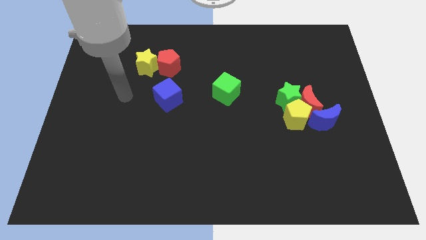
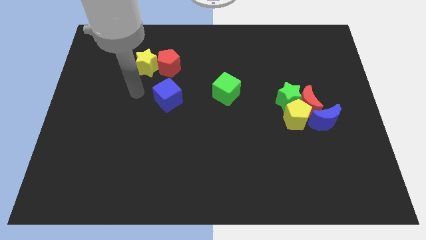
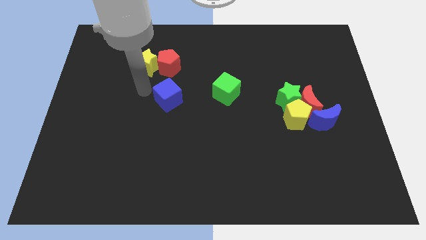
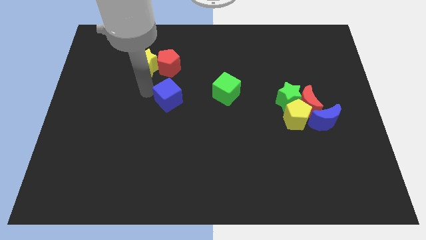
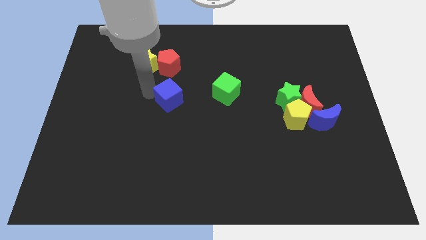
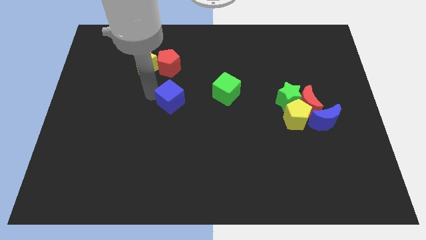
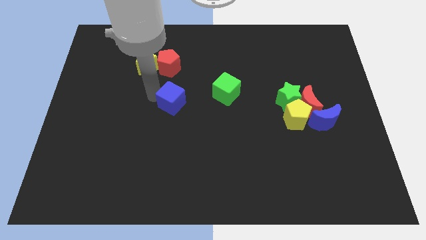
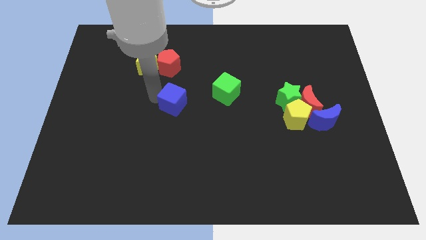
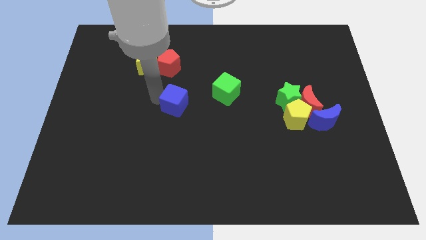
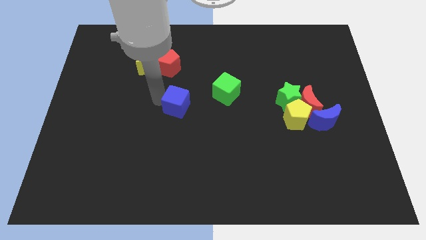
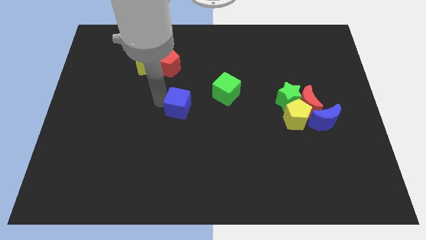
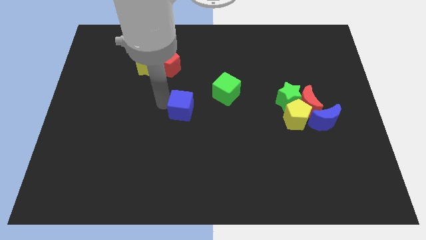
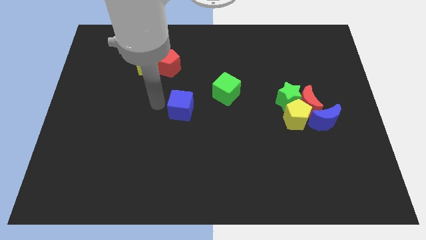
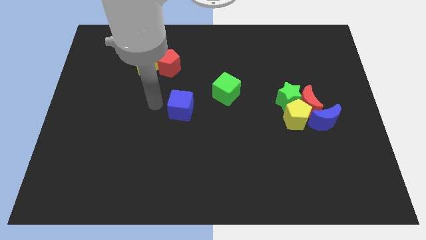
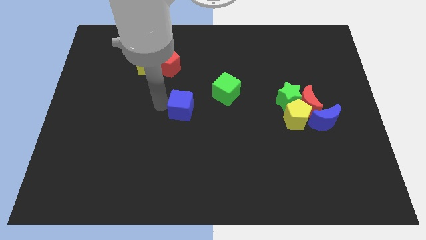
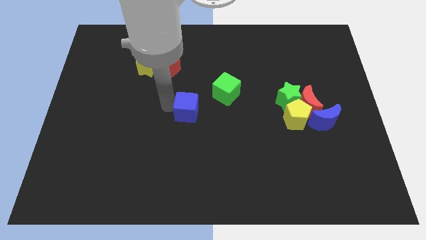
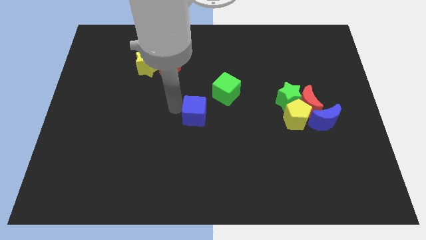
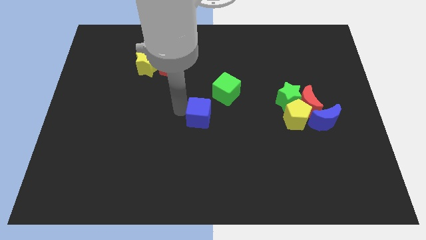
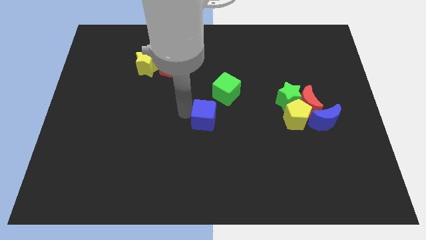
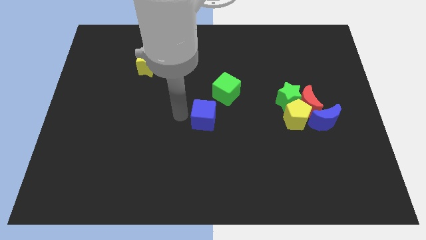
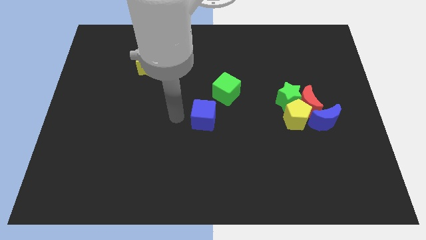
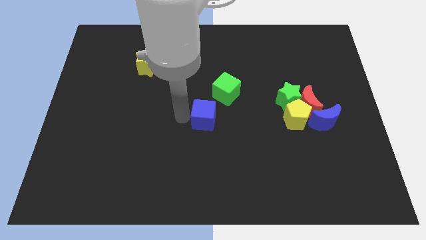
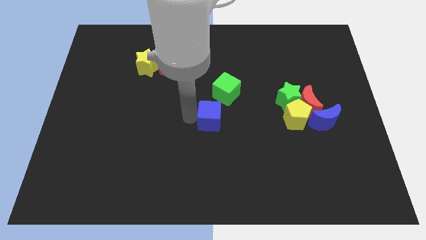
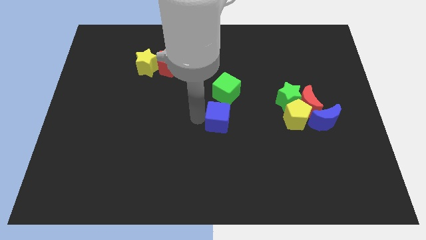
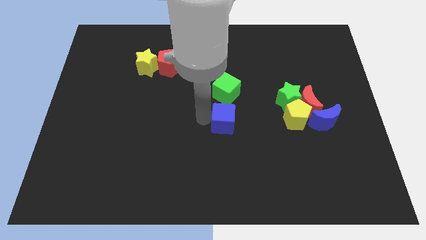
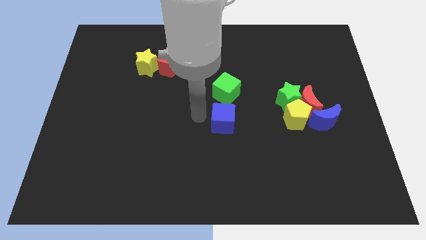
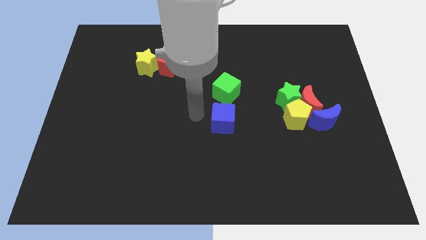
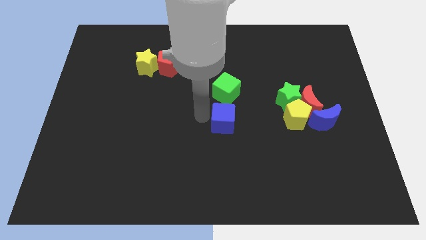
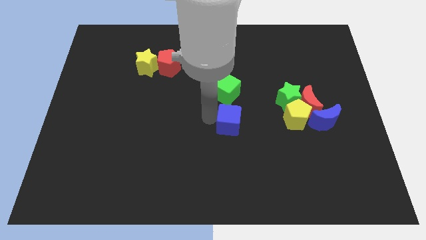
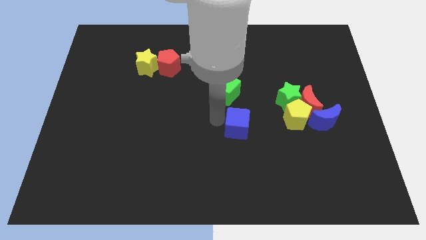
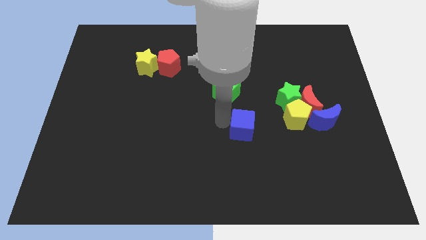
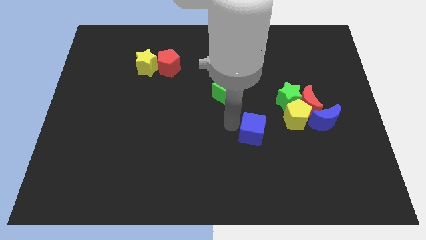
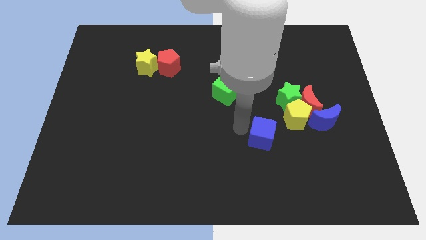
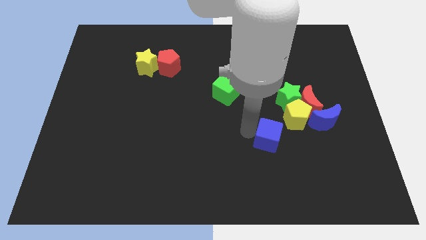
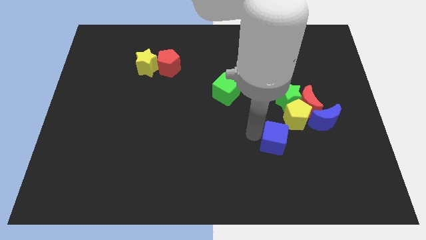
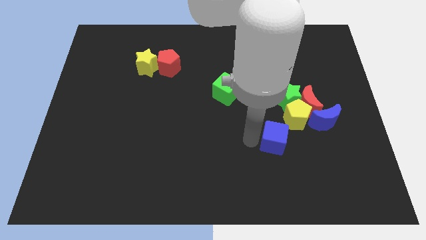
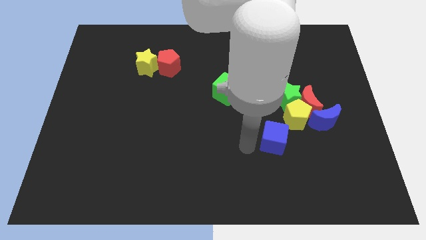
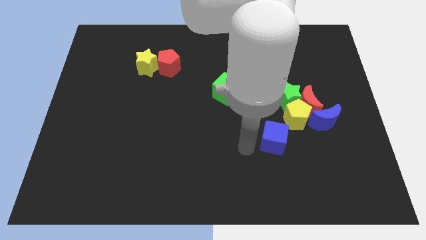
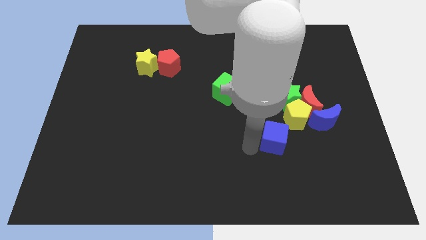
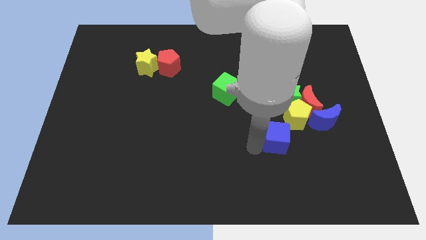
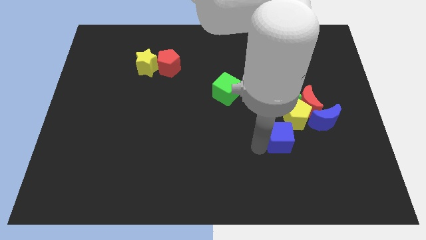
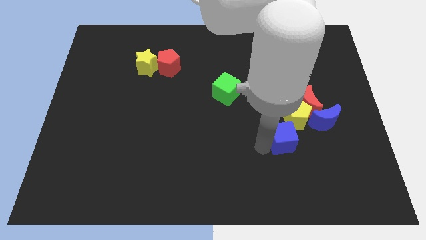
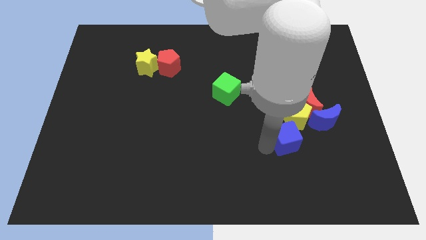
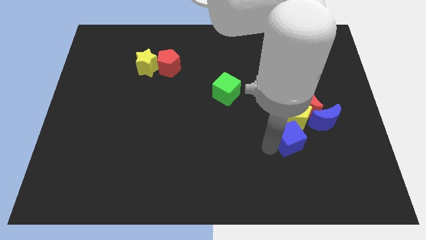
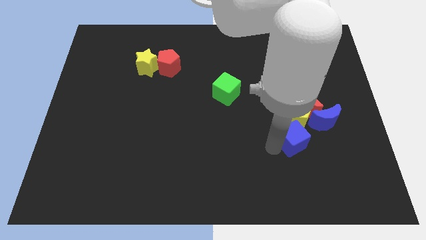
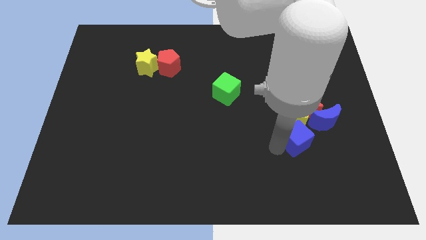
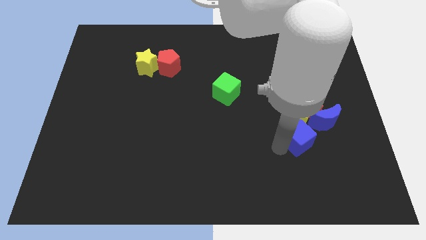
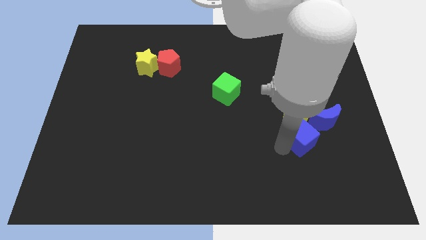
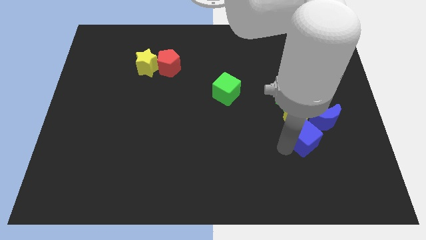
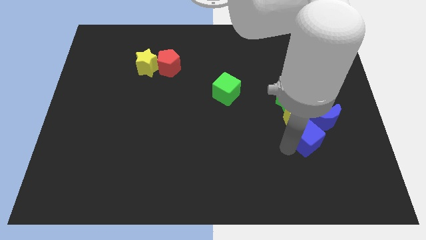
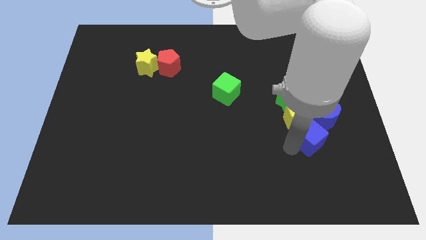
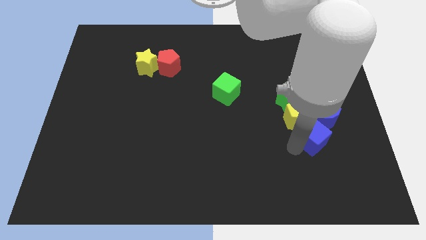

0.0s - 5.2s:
slide the blue cube towards the blue moon

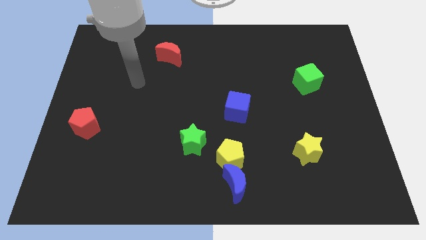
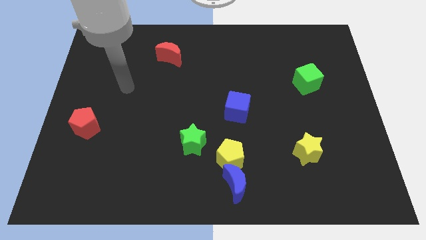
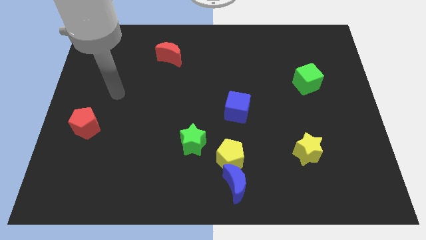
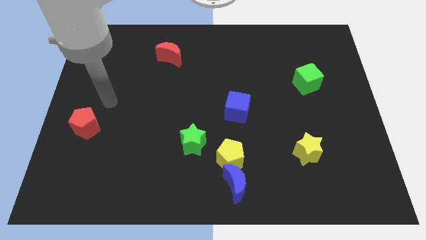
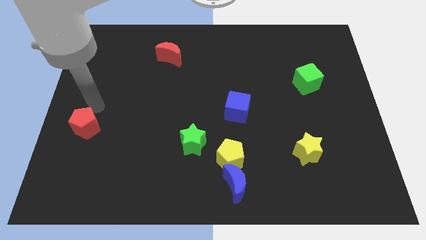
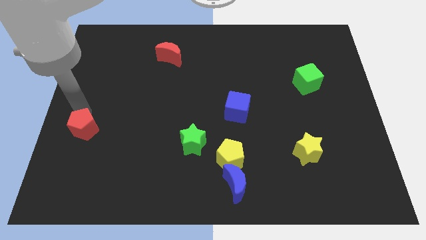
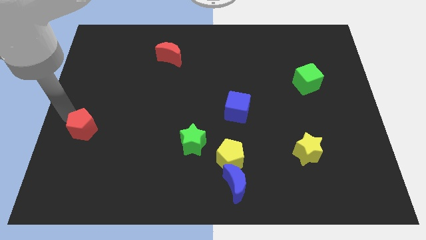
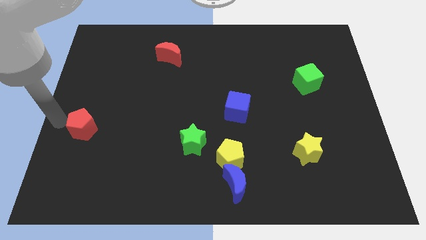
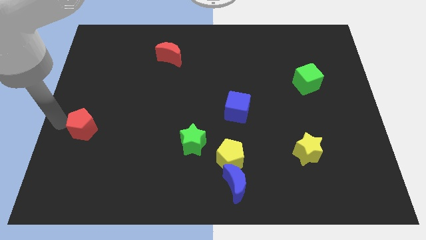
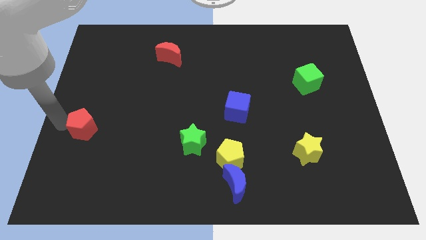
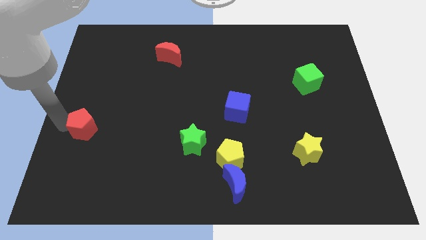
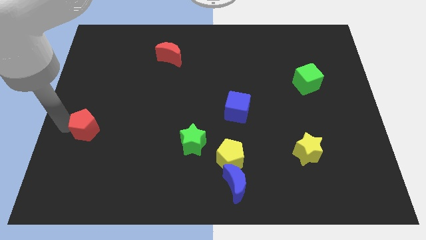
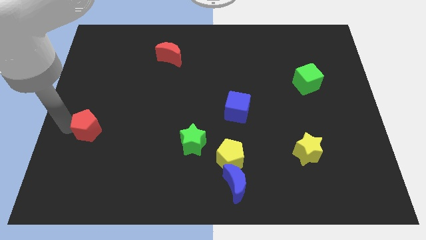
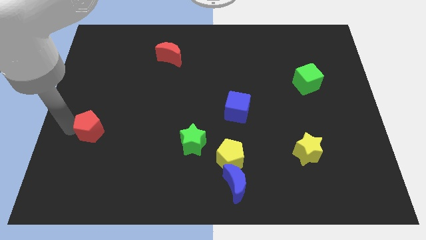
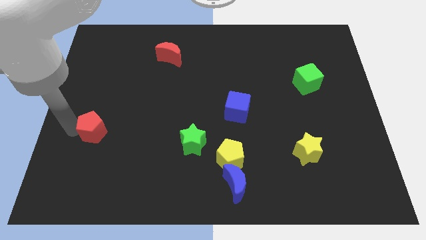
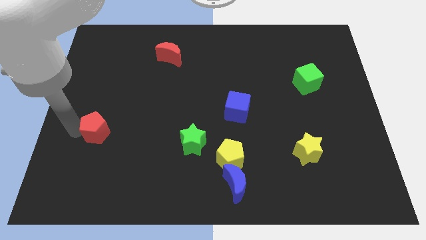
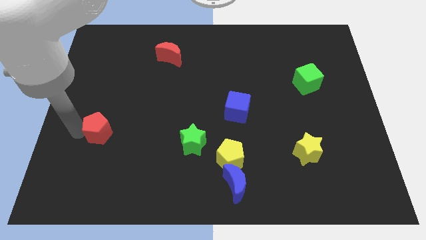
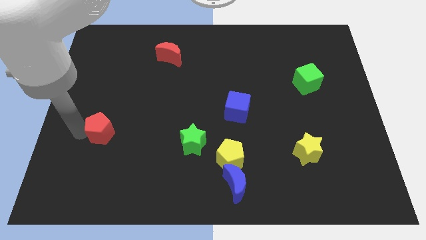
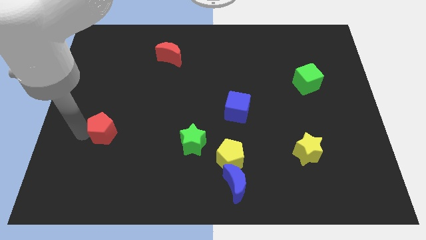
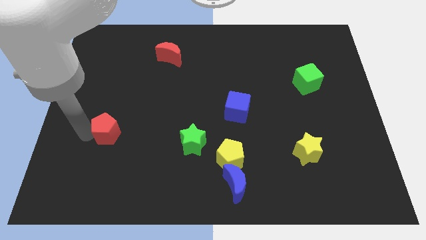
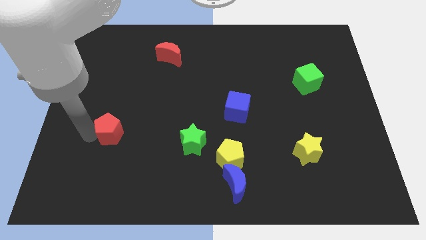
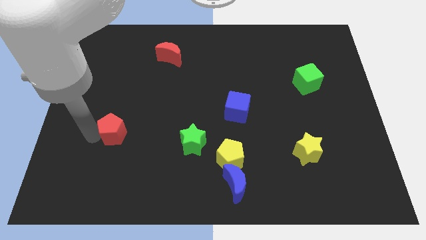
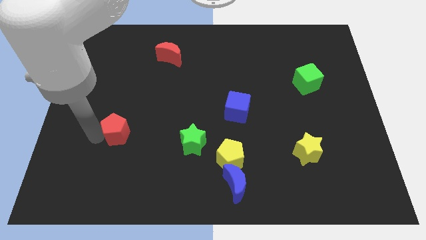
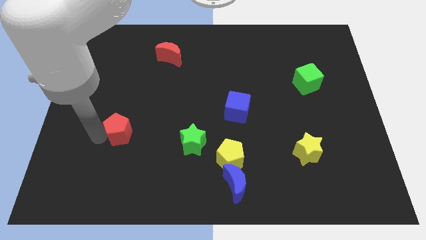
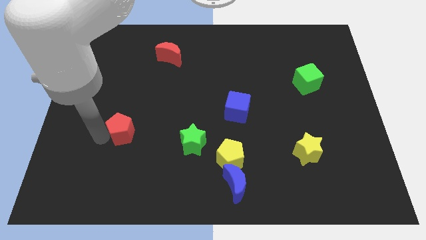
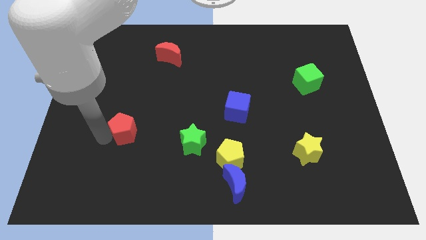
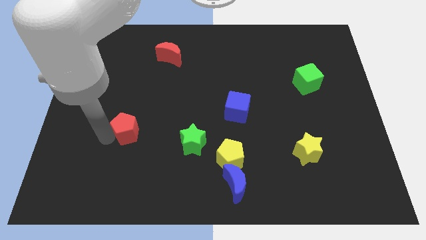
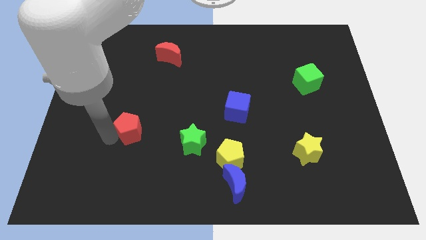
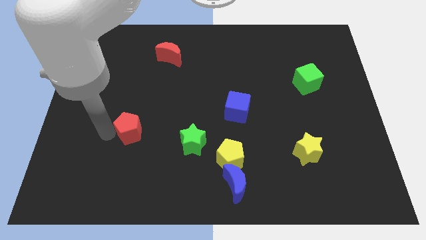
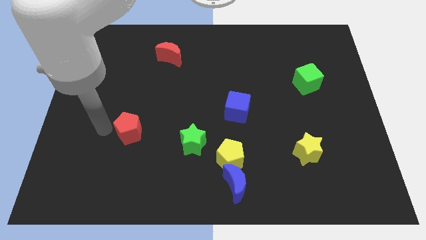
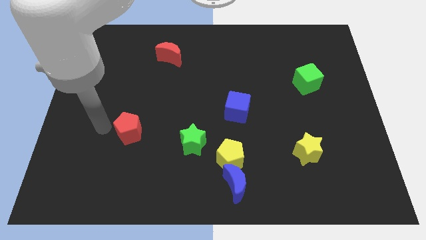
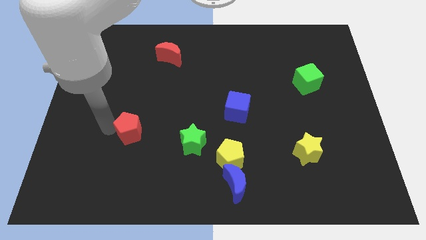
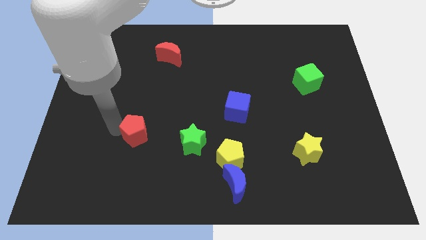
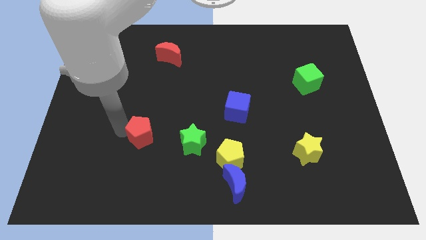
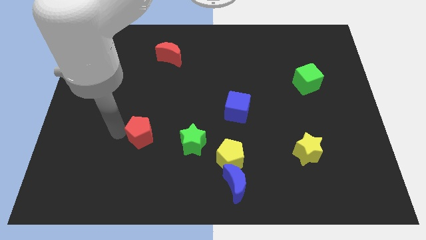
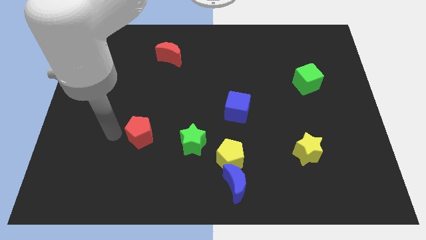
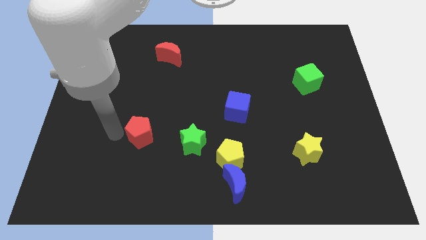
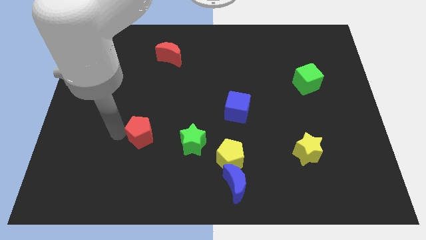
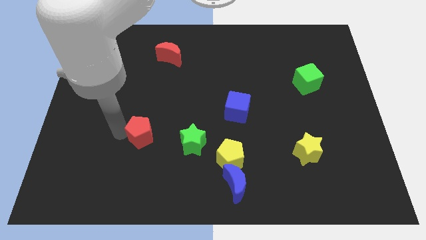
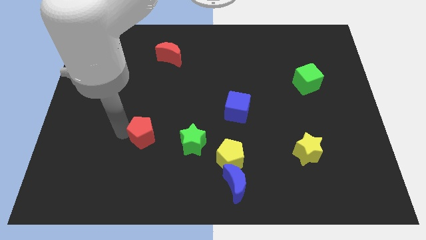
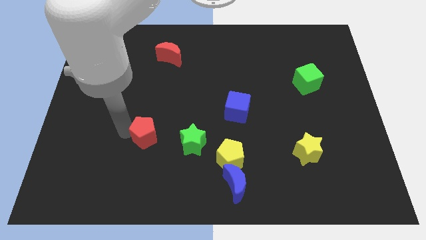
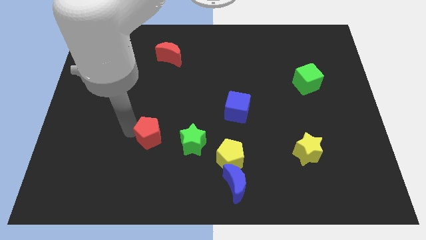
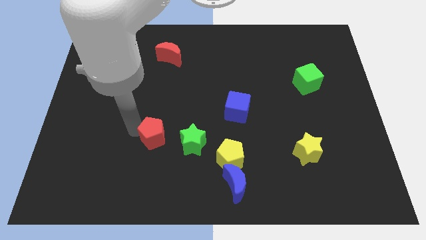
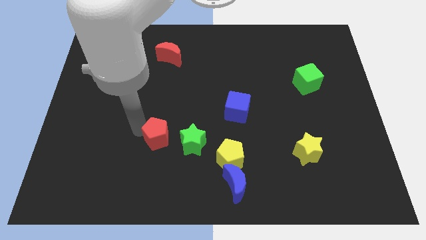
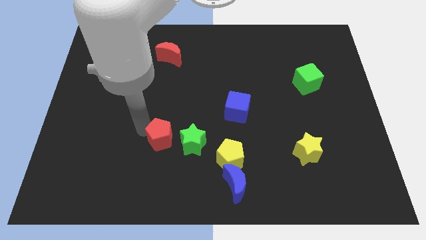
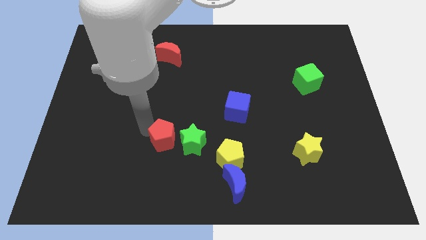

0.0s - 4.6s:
push the red pentagon next to the green star
